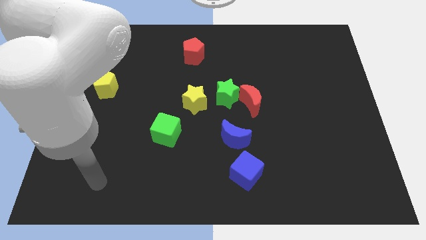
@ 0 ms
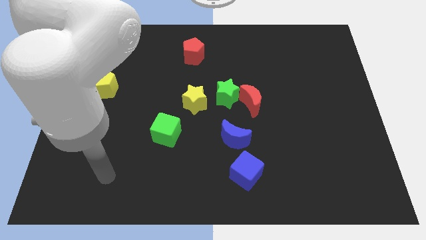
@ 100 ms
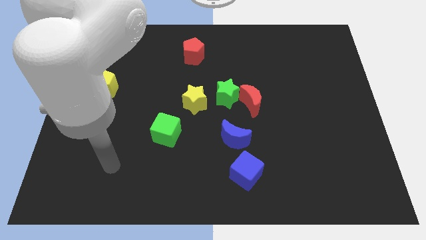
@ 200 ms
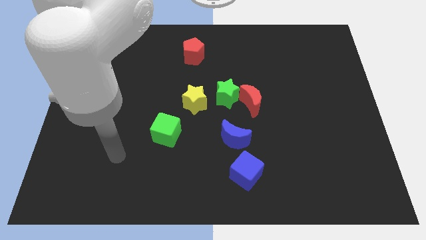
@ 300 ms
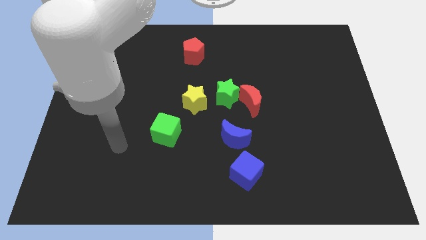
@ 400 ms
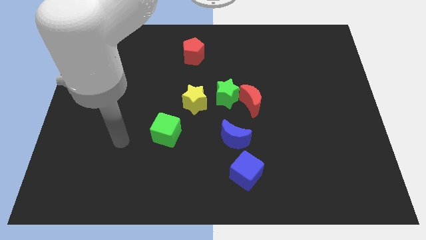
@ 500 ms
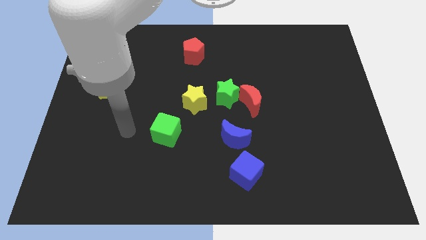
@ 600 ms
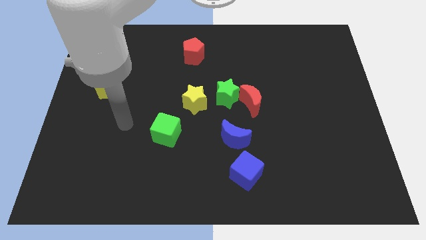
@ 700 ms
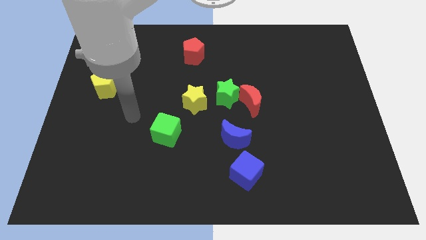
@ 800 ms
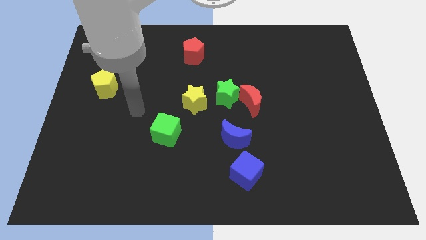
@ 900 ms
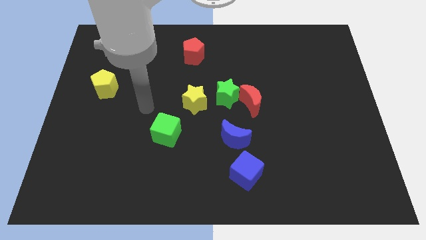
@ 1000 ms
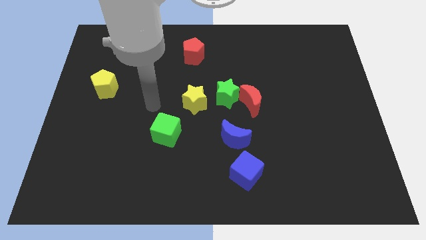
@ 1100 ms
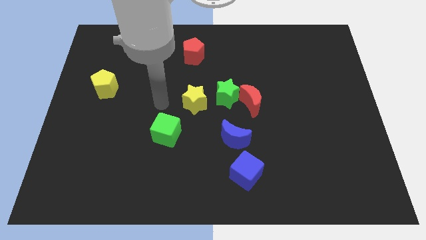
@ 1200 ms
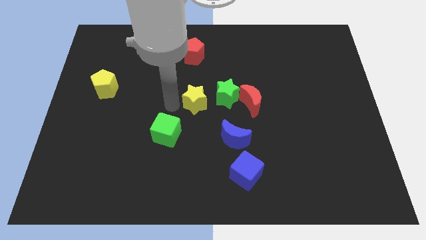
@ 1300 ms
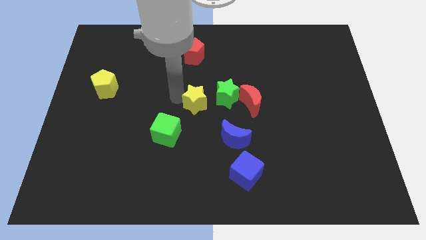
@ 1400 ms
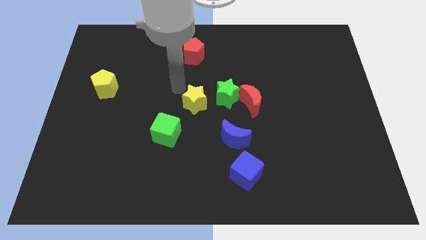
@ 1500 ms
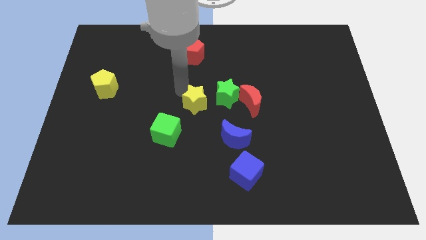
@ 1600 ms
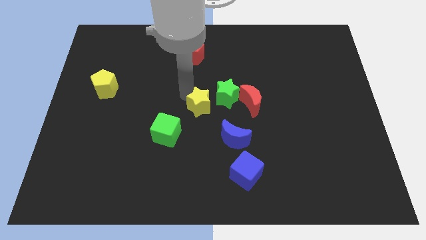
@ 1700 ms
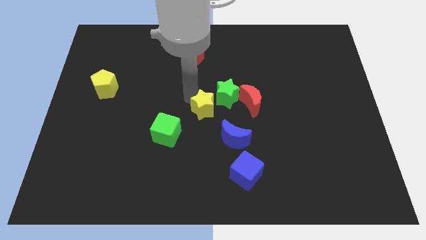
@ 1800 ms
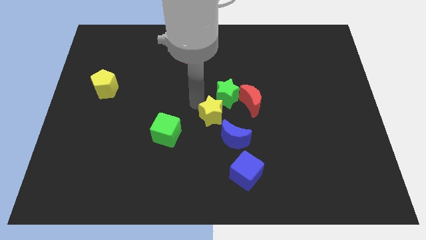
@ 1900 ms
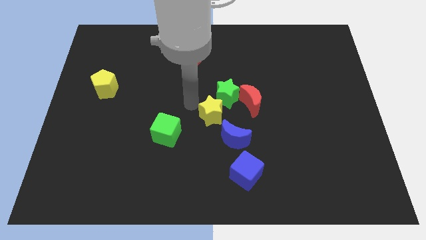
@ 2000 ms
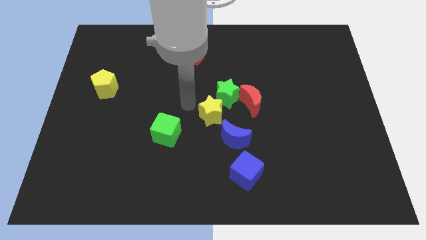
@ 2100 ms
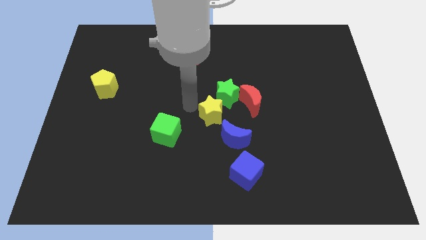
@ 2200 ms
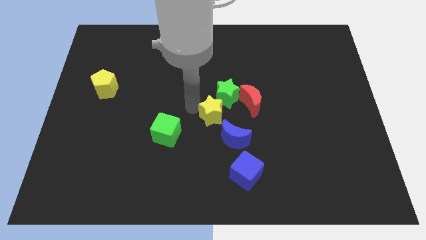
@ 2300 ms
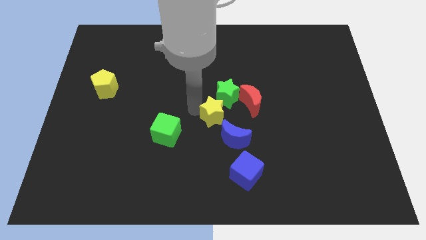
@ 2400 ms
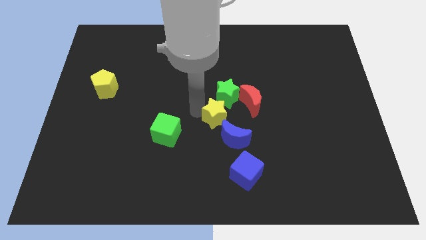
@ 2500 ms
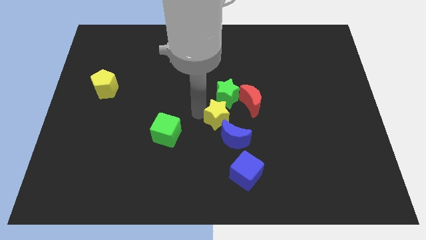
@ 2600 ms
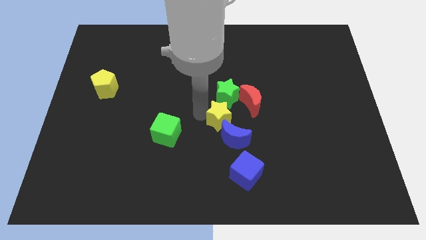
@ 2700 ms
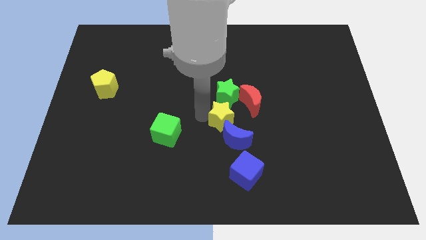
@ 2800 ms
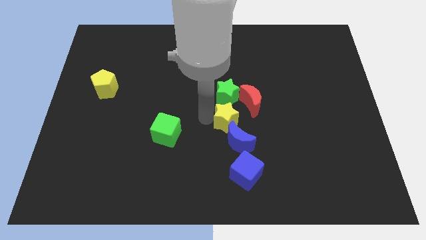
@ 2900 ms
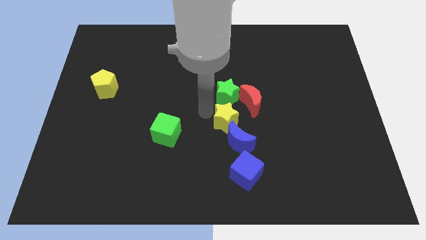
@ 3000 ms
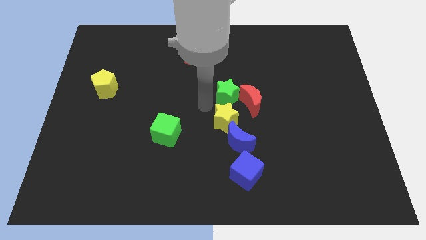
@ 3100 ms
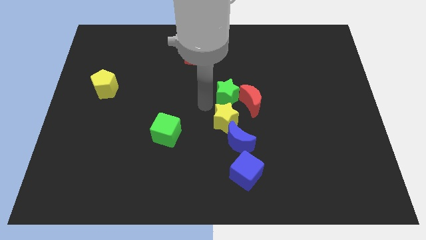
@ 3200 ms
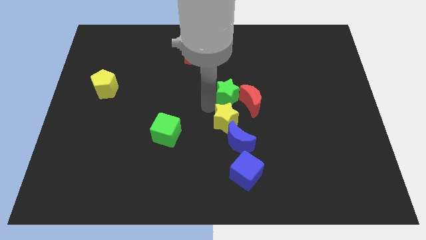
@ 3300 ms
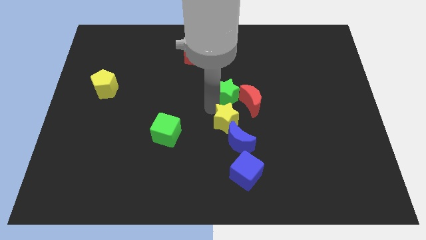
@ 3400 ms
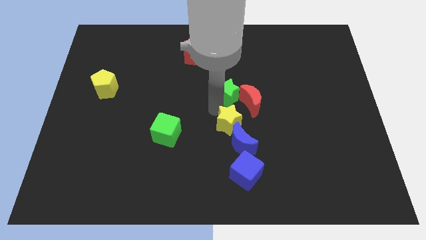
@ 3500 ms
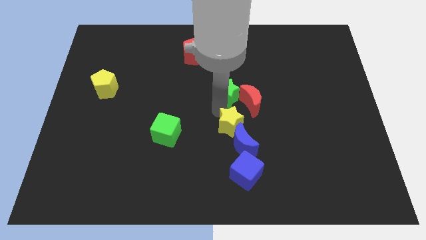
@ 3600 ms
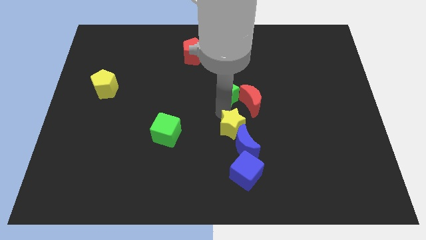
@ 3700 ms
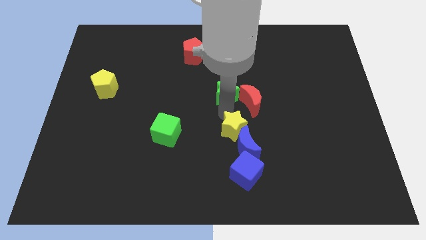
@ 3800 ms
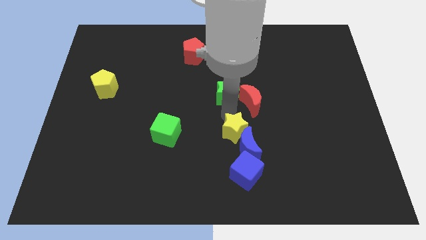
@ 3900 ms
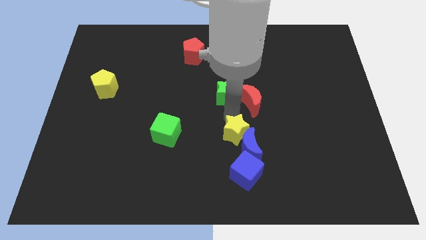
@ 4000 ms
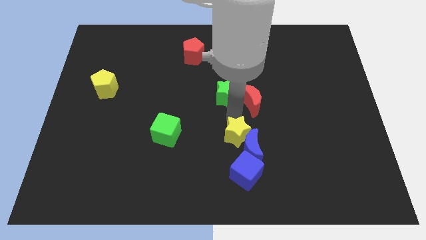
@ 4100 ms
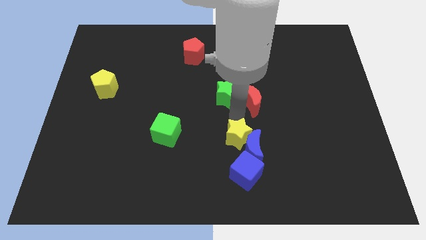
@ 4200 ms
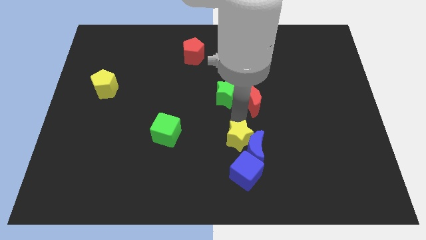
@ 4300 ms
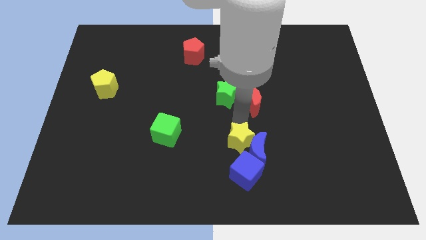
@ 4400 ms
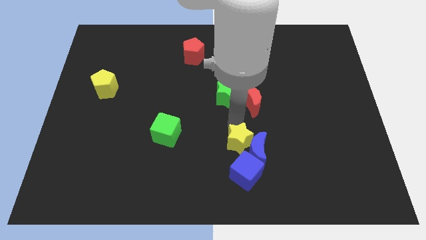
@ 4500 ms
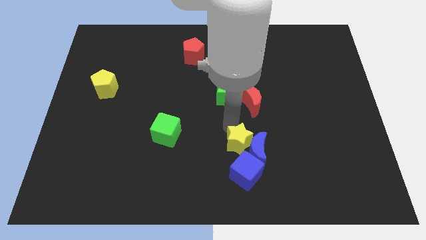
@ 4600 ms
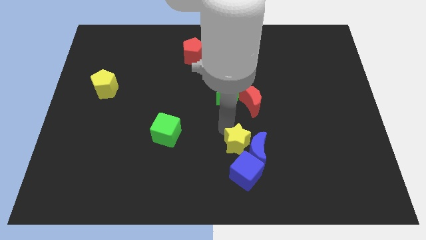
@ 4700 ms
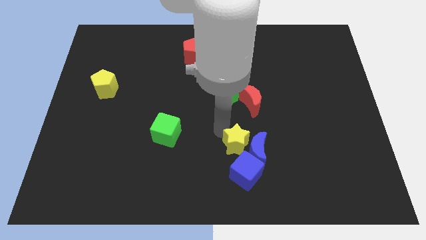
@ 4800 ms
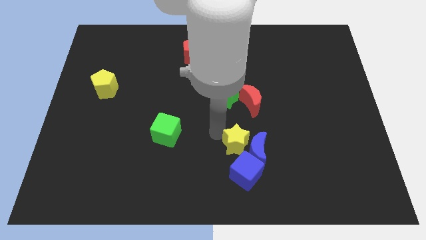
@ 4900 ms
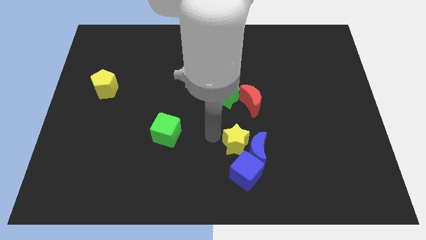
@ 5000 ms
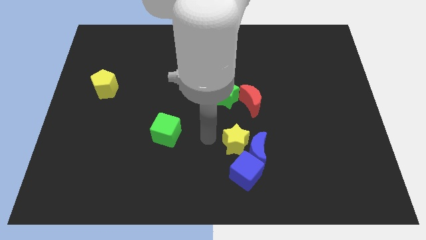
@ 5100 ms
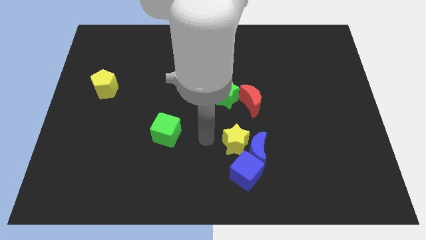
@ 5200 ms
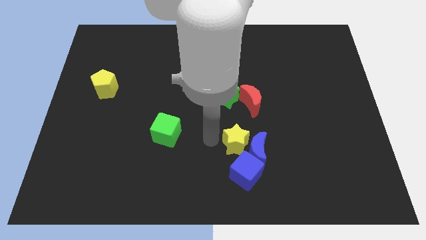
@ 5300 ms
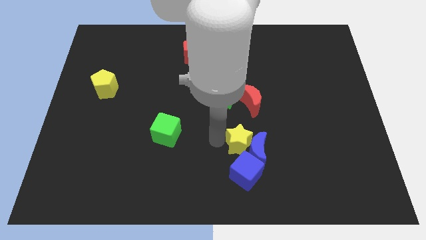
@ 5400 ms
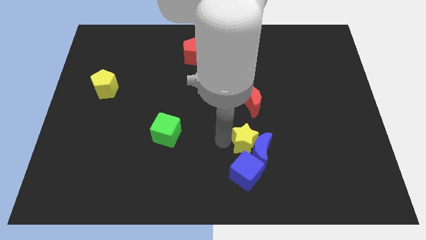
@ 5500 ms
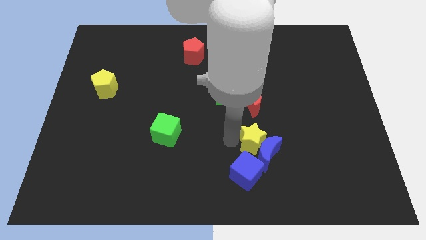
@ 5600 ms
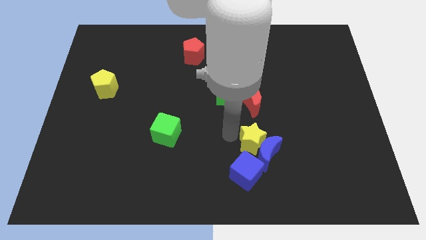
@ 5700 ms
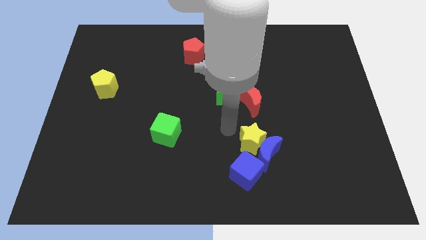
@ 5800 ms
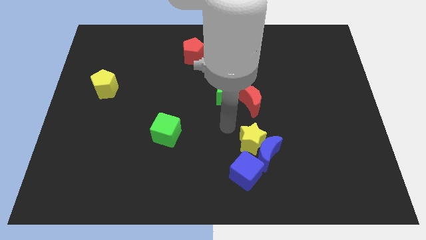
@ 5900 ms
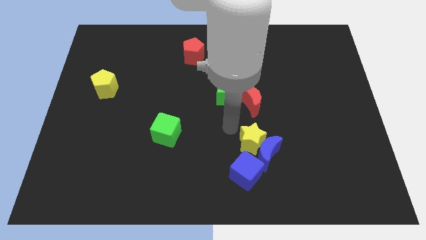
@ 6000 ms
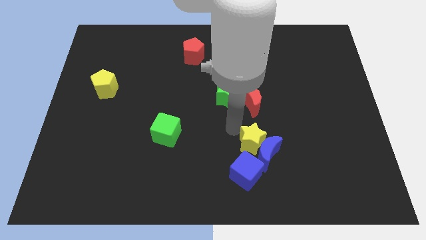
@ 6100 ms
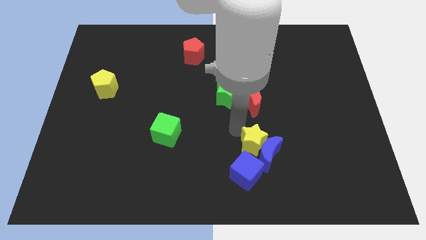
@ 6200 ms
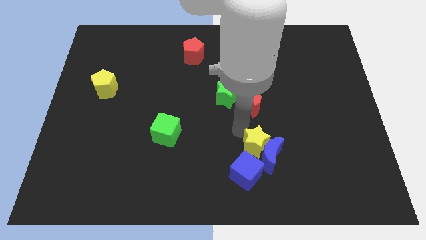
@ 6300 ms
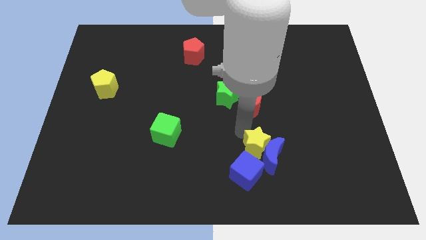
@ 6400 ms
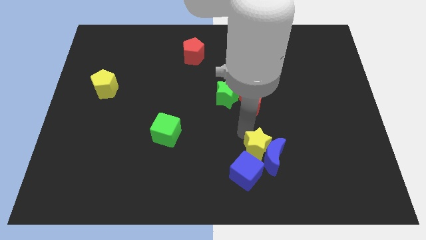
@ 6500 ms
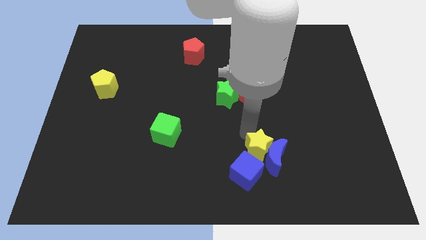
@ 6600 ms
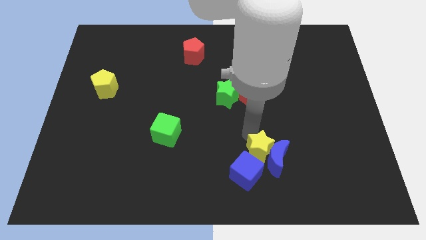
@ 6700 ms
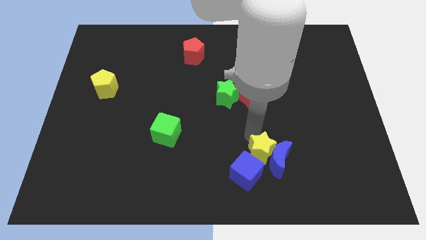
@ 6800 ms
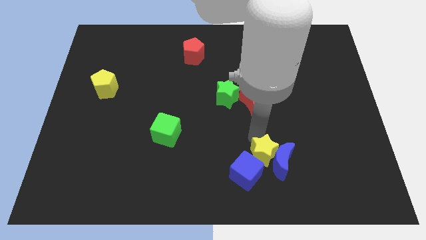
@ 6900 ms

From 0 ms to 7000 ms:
move the yellow star to the right of the blue cube
